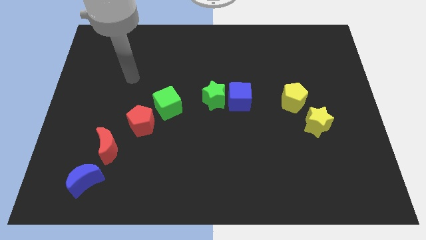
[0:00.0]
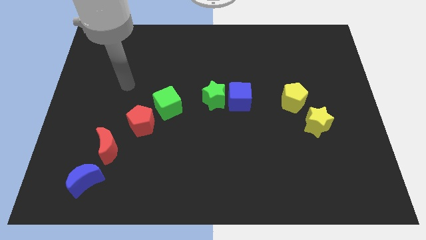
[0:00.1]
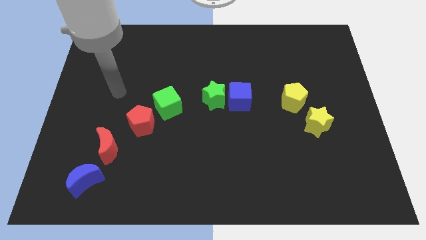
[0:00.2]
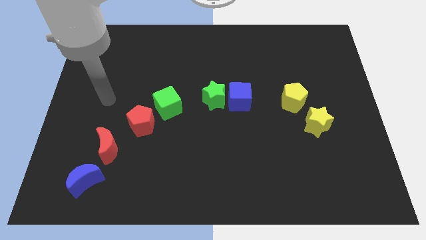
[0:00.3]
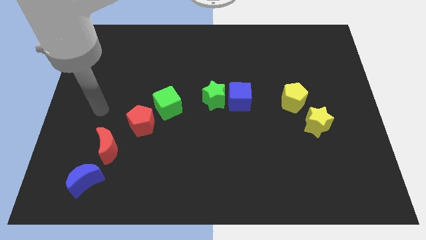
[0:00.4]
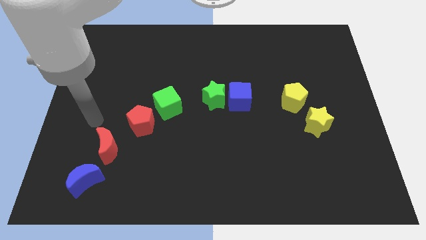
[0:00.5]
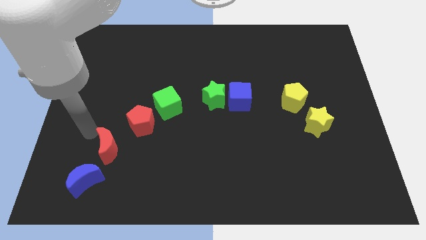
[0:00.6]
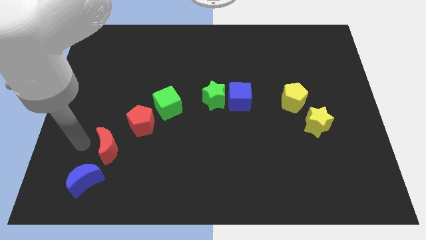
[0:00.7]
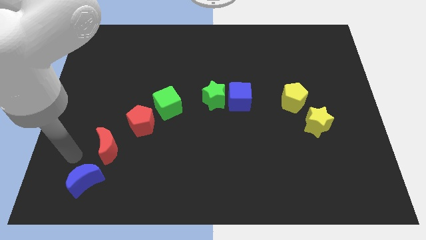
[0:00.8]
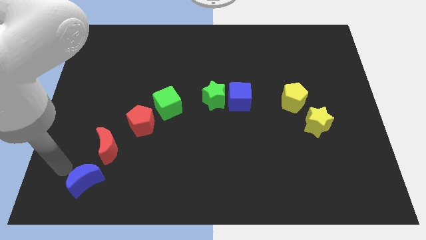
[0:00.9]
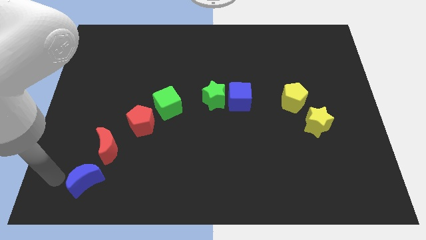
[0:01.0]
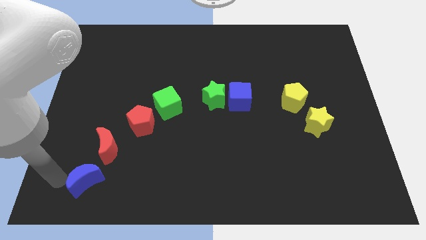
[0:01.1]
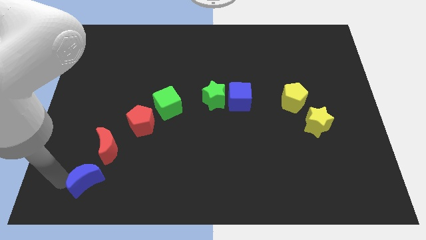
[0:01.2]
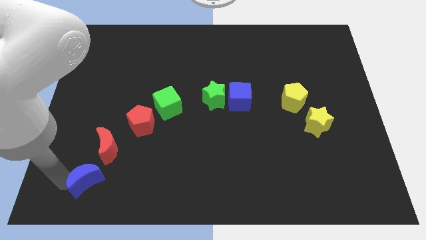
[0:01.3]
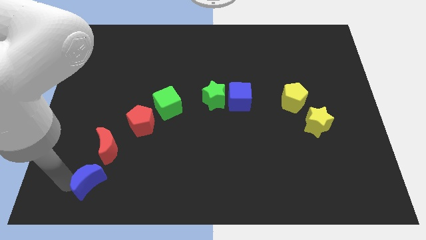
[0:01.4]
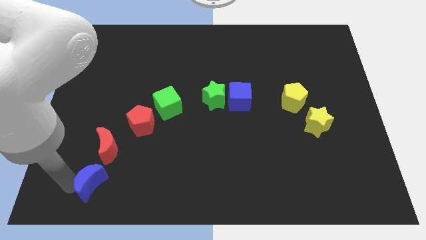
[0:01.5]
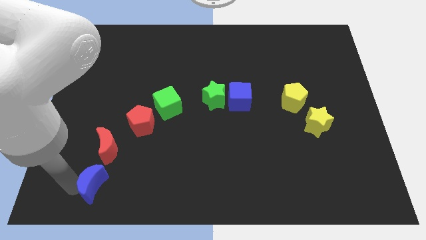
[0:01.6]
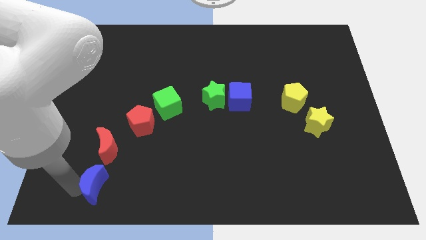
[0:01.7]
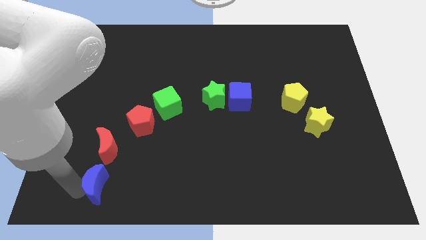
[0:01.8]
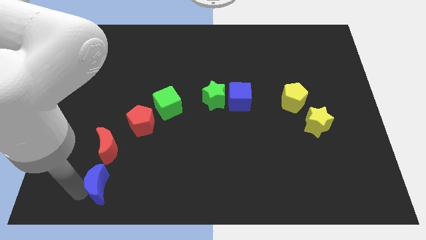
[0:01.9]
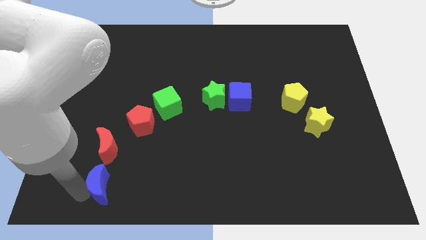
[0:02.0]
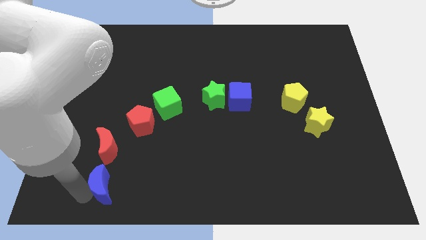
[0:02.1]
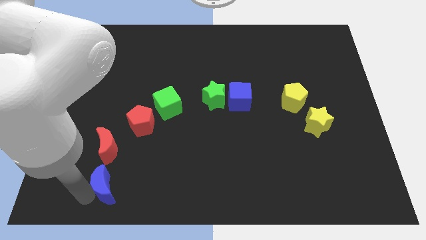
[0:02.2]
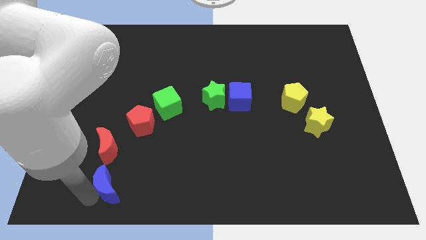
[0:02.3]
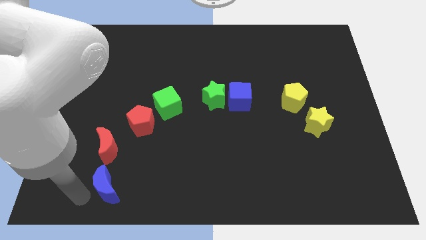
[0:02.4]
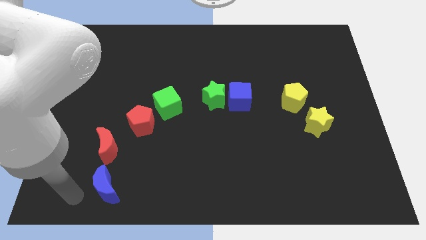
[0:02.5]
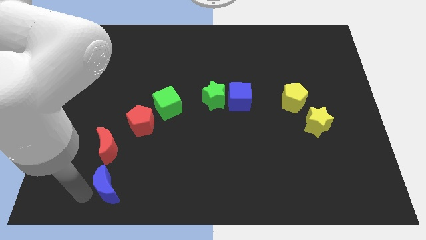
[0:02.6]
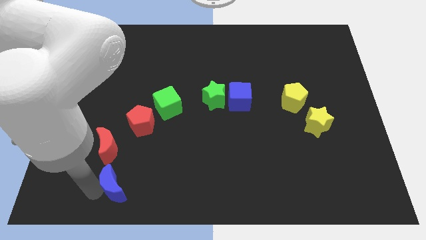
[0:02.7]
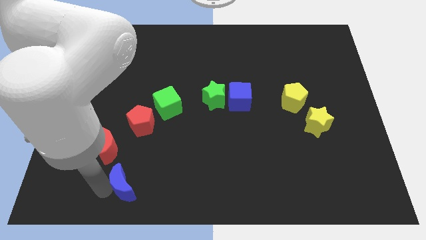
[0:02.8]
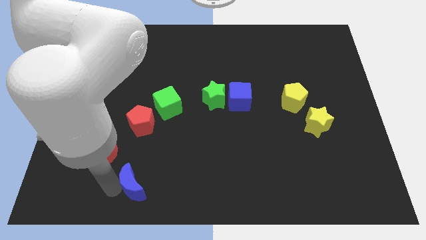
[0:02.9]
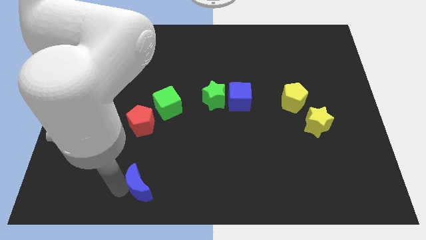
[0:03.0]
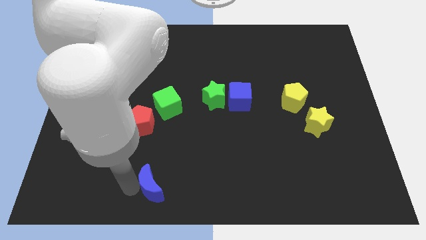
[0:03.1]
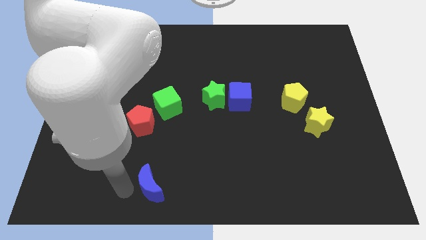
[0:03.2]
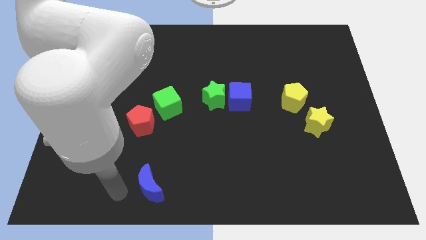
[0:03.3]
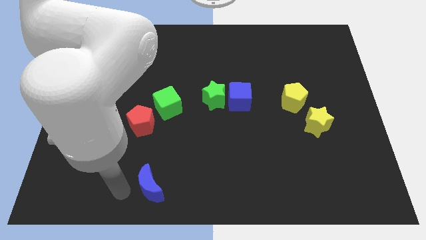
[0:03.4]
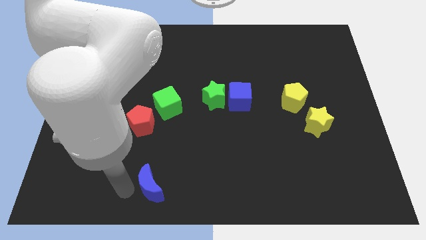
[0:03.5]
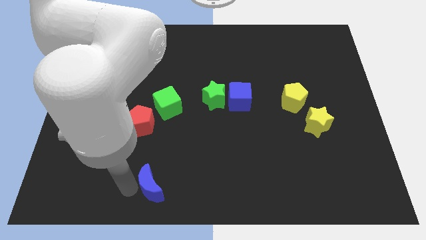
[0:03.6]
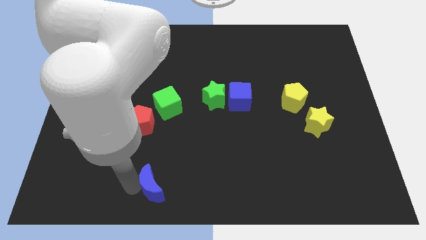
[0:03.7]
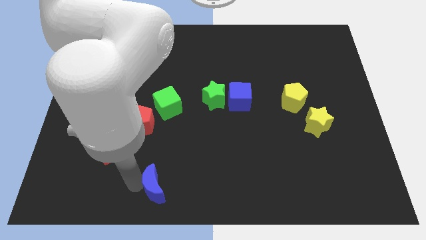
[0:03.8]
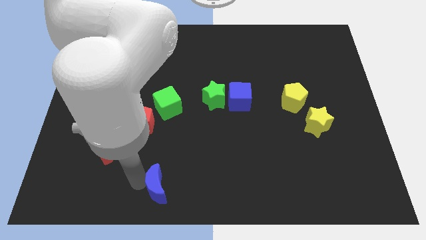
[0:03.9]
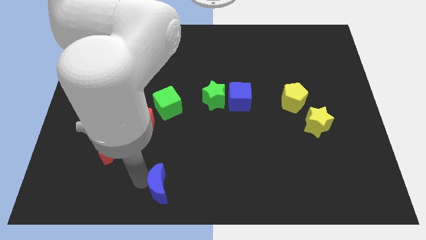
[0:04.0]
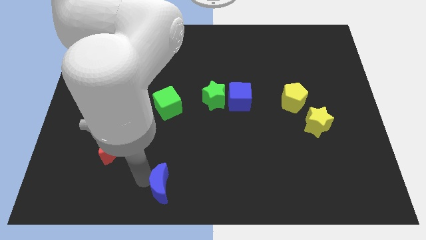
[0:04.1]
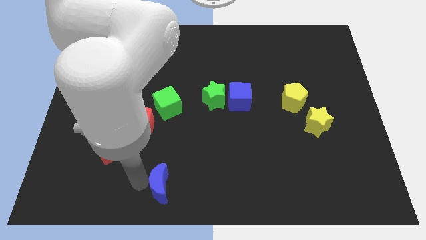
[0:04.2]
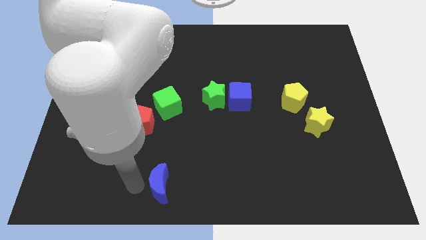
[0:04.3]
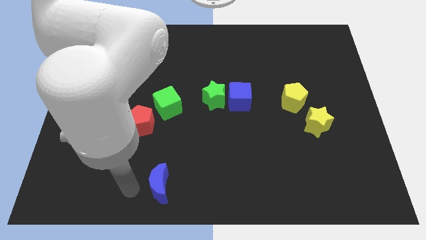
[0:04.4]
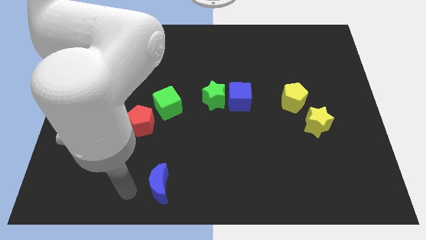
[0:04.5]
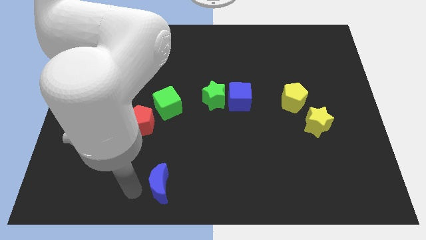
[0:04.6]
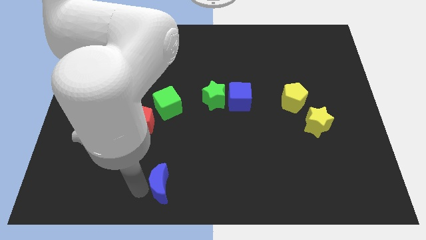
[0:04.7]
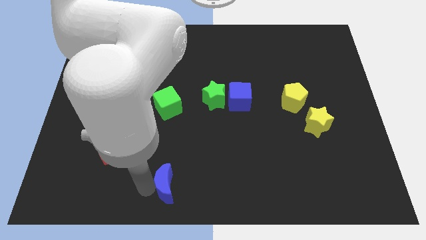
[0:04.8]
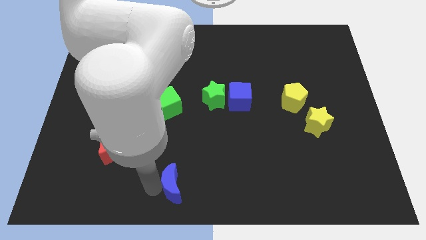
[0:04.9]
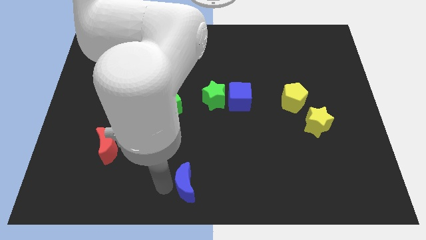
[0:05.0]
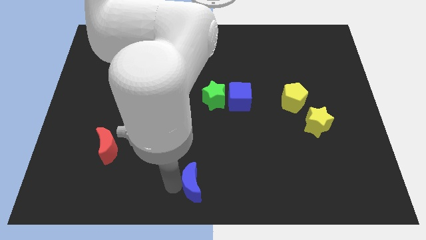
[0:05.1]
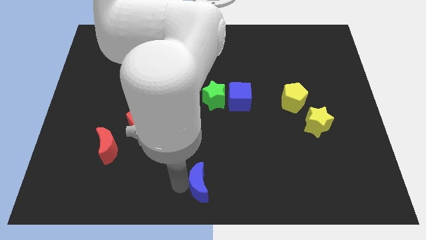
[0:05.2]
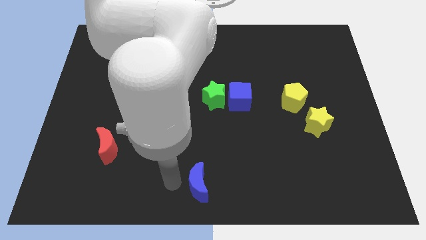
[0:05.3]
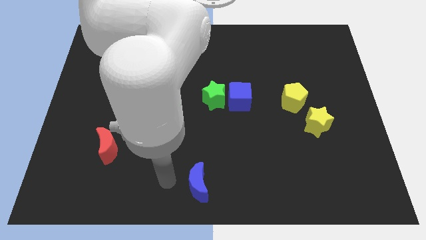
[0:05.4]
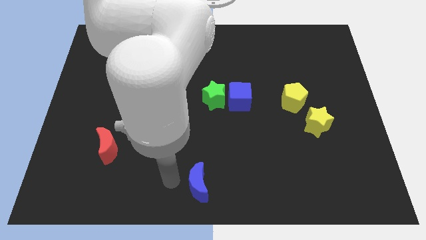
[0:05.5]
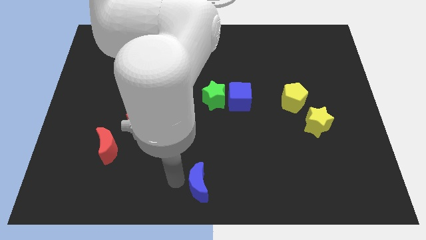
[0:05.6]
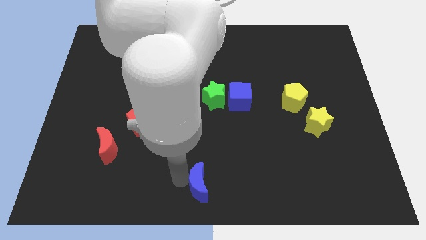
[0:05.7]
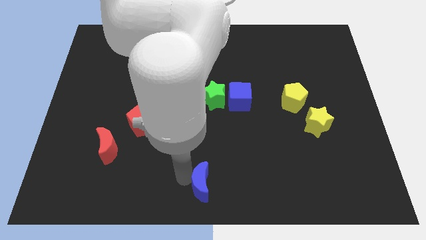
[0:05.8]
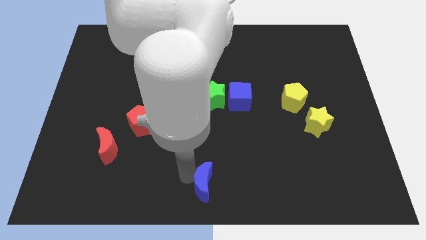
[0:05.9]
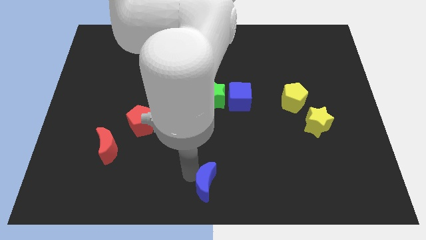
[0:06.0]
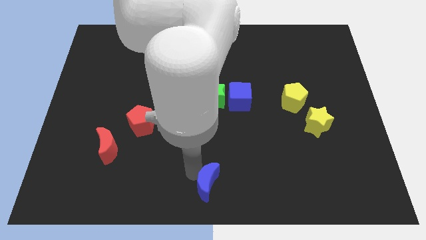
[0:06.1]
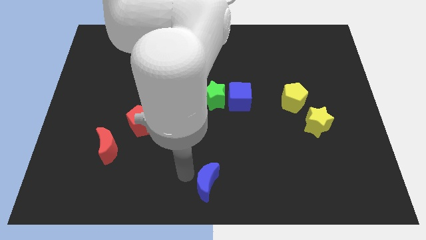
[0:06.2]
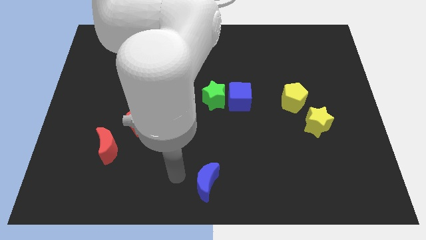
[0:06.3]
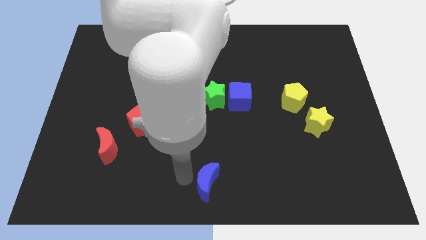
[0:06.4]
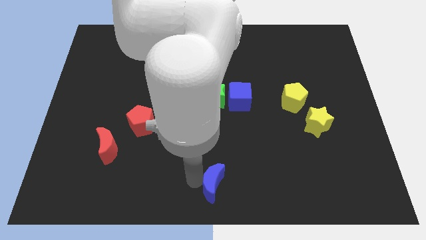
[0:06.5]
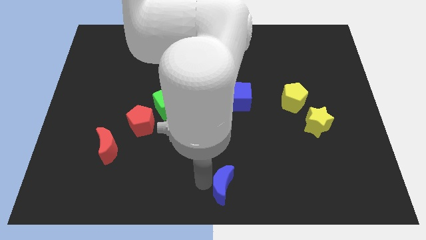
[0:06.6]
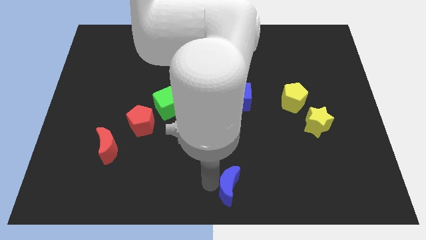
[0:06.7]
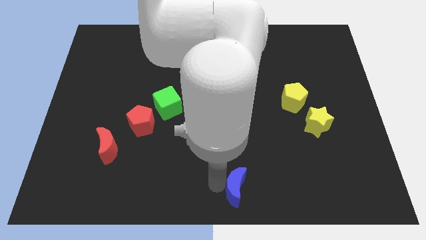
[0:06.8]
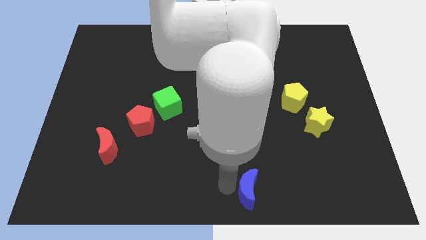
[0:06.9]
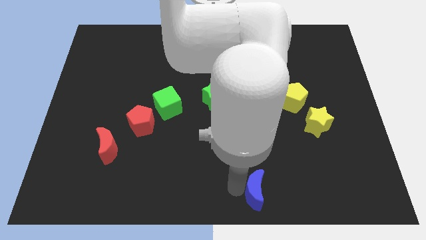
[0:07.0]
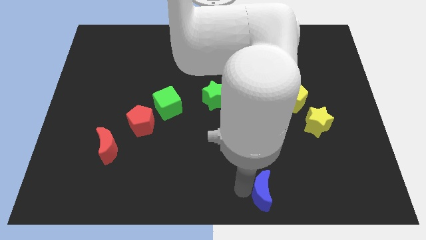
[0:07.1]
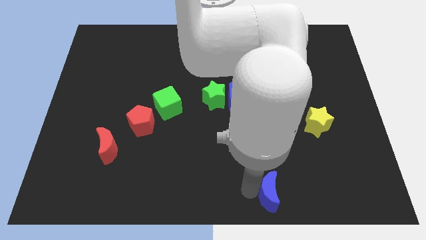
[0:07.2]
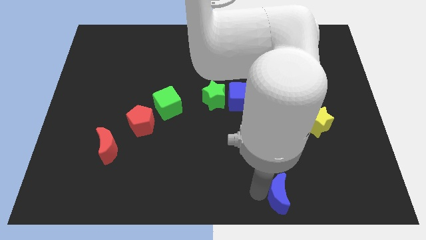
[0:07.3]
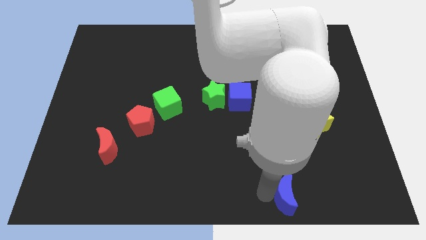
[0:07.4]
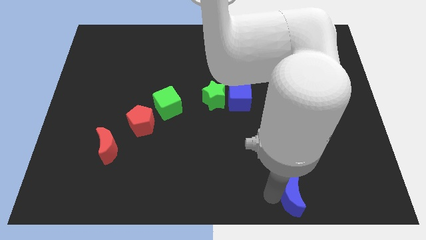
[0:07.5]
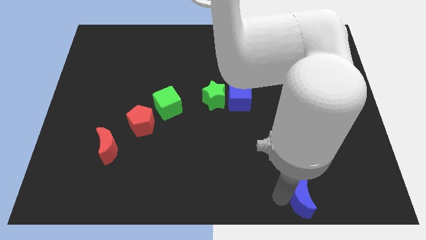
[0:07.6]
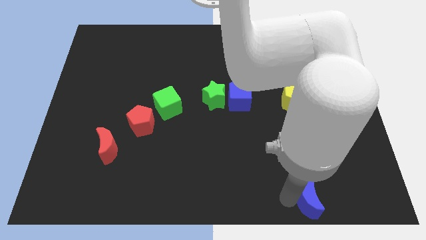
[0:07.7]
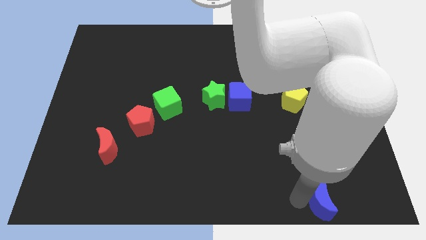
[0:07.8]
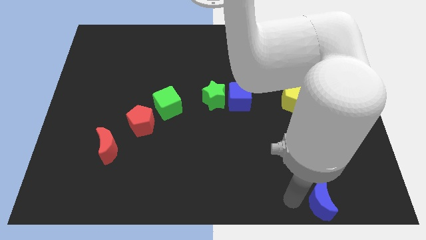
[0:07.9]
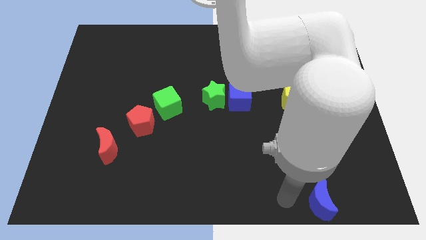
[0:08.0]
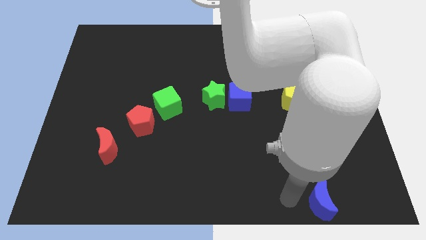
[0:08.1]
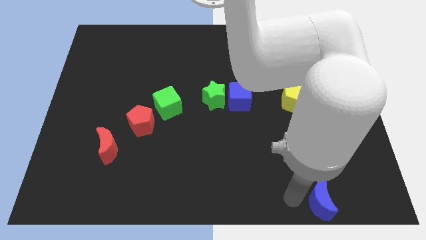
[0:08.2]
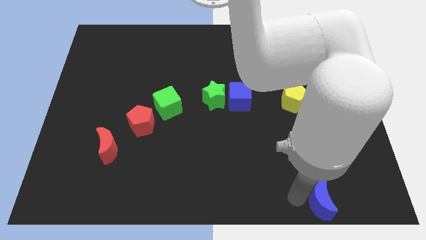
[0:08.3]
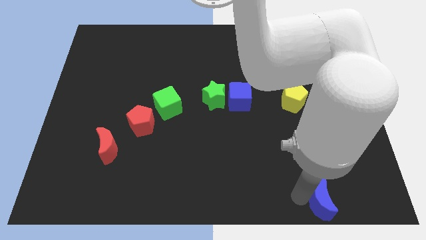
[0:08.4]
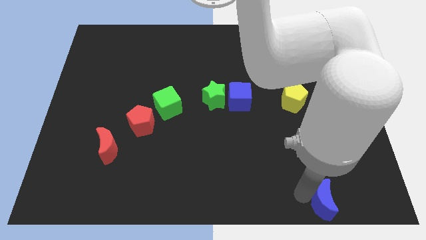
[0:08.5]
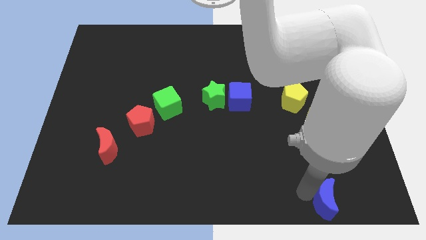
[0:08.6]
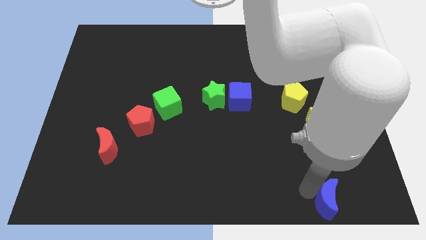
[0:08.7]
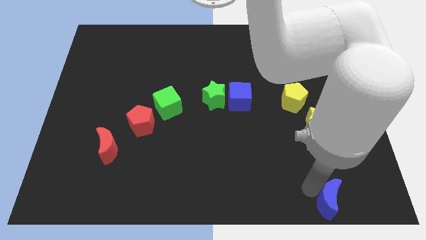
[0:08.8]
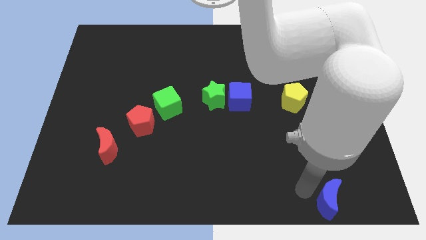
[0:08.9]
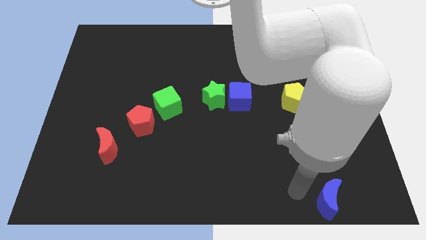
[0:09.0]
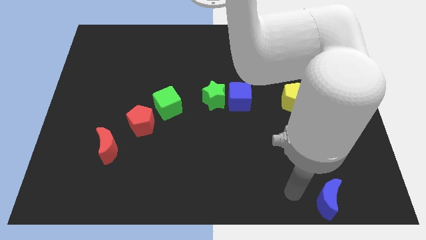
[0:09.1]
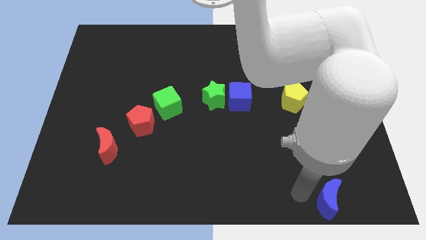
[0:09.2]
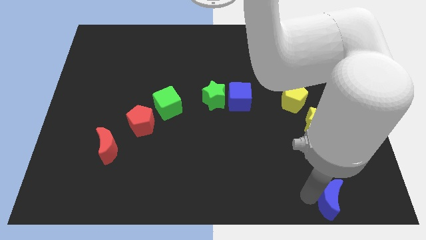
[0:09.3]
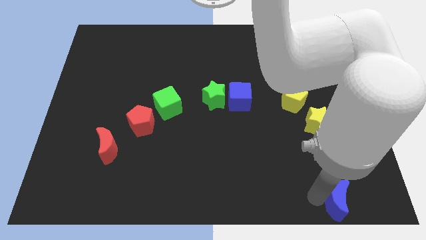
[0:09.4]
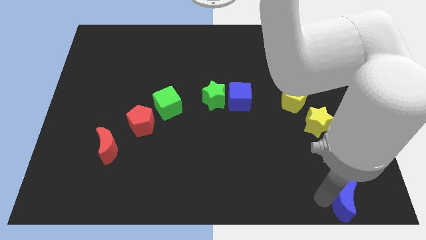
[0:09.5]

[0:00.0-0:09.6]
put the blue moon to the bottom right
